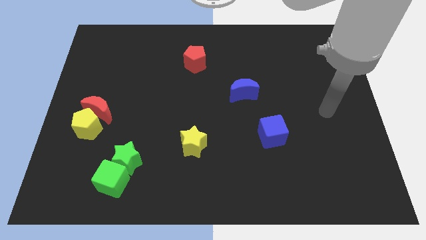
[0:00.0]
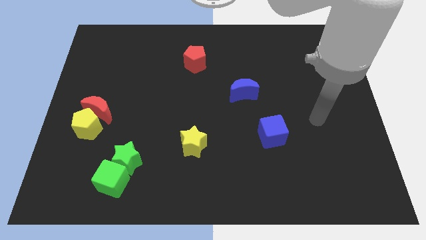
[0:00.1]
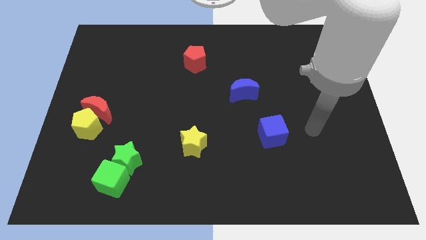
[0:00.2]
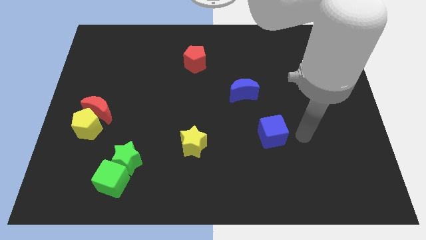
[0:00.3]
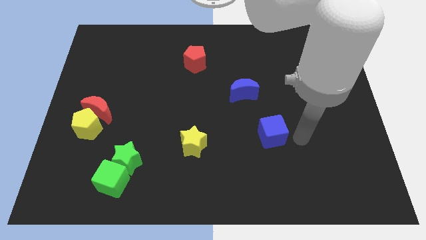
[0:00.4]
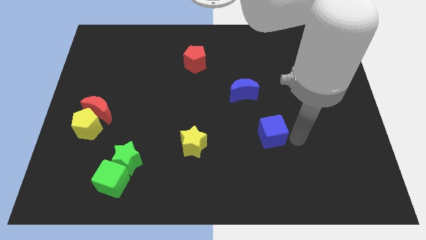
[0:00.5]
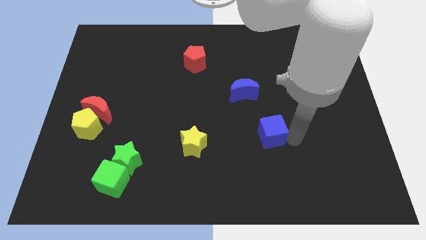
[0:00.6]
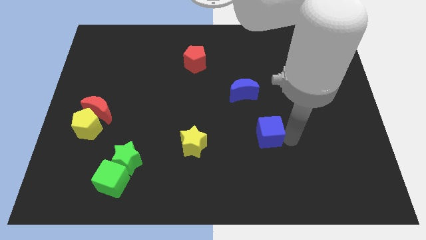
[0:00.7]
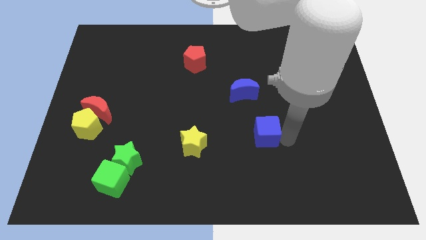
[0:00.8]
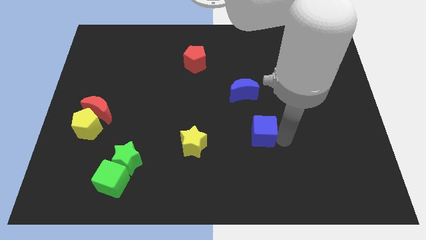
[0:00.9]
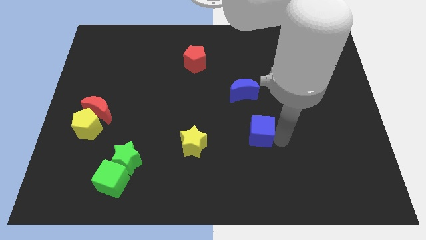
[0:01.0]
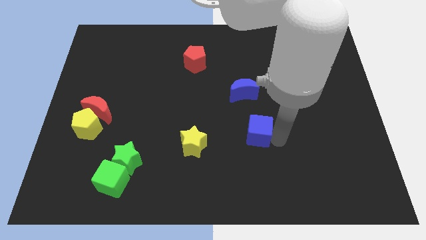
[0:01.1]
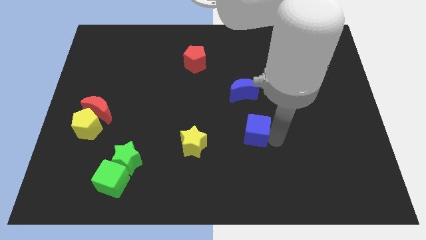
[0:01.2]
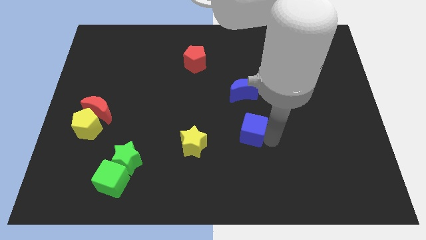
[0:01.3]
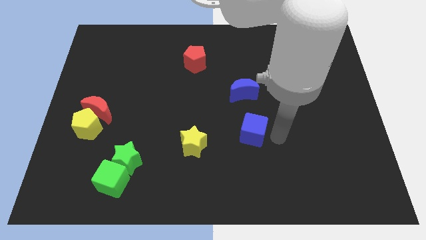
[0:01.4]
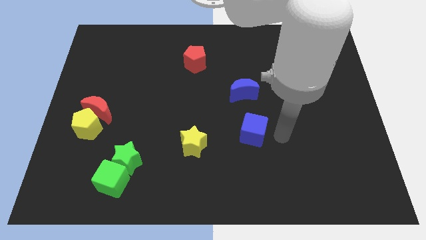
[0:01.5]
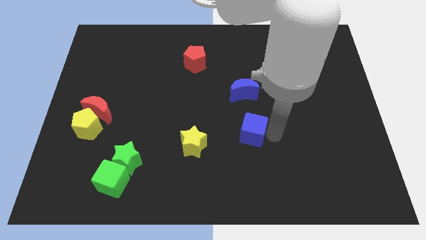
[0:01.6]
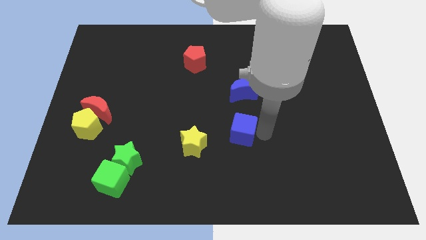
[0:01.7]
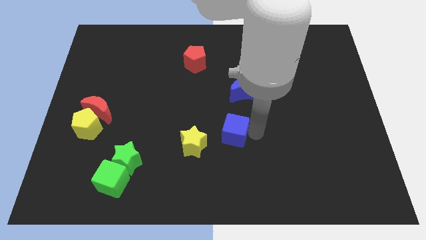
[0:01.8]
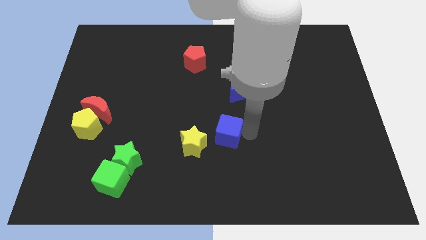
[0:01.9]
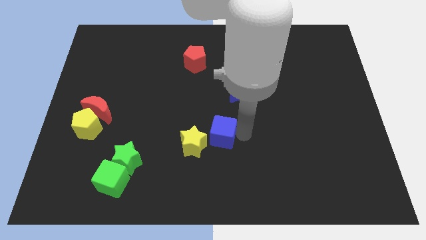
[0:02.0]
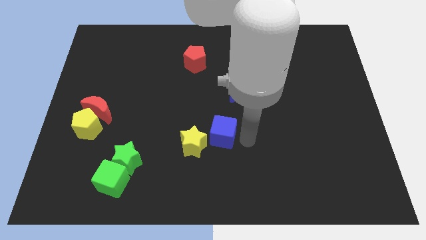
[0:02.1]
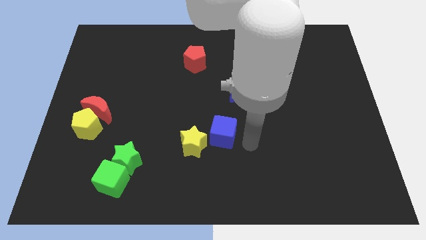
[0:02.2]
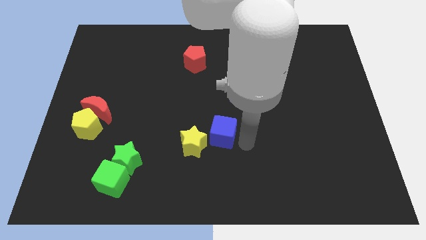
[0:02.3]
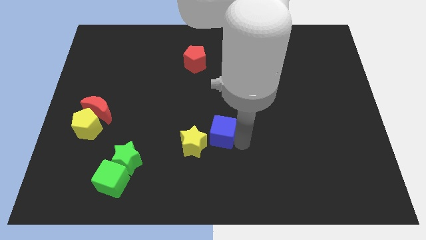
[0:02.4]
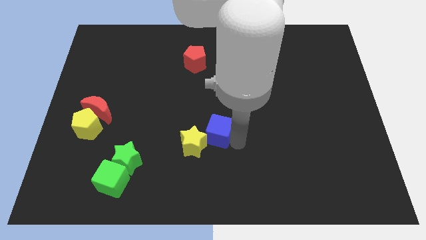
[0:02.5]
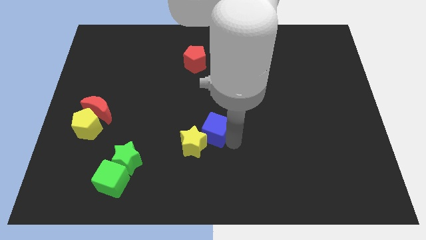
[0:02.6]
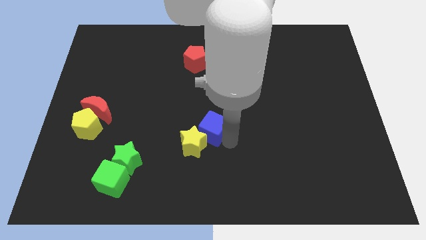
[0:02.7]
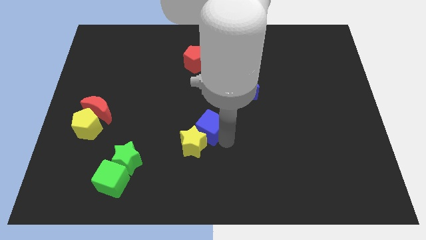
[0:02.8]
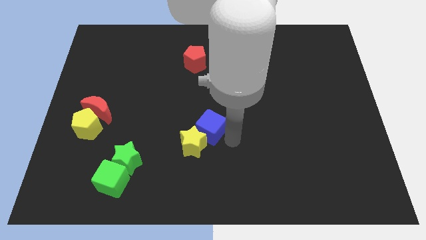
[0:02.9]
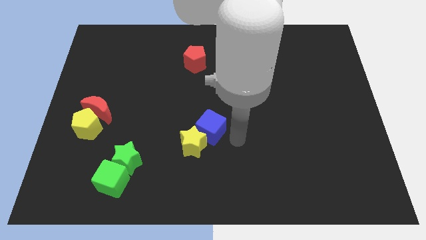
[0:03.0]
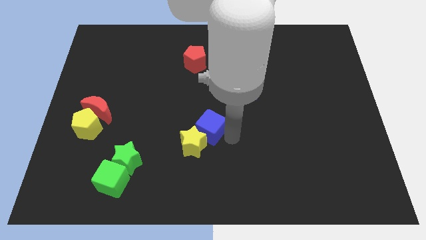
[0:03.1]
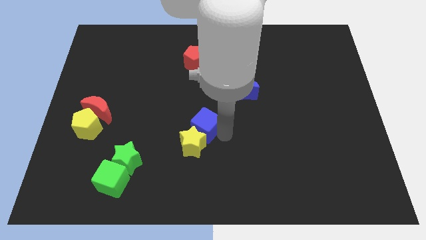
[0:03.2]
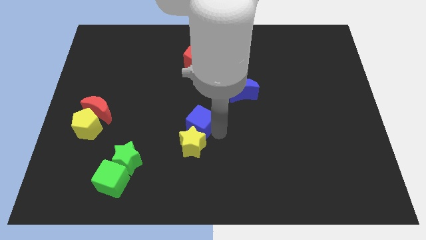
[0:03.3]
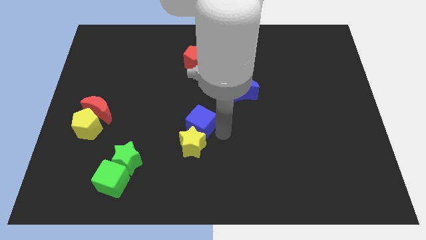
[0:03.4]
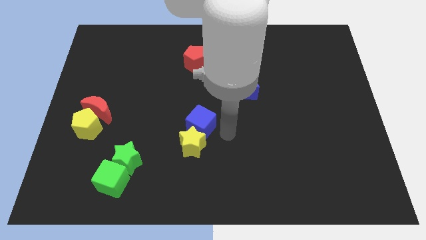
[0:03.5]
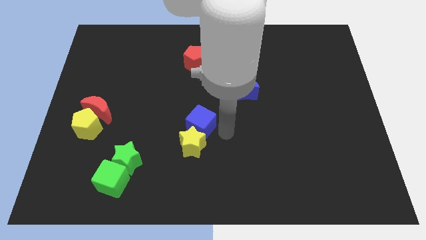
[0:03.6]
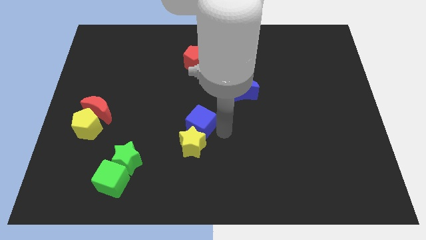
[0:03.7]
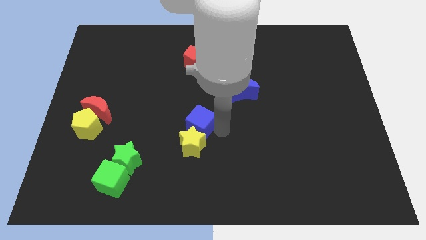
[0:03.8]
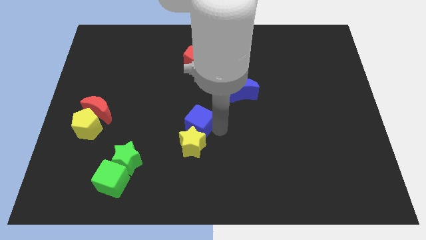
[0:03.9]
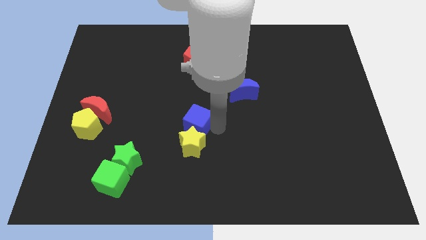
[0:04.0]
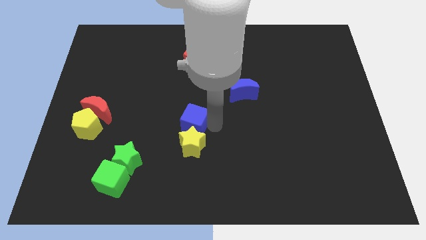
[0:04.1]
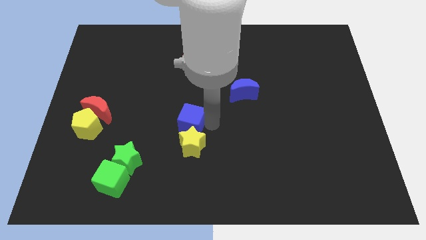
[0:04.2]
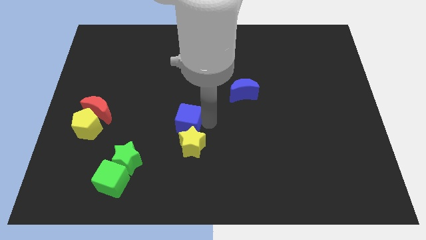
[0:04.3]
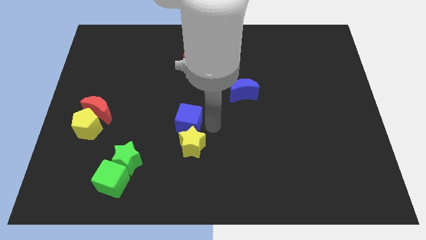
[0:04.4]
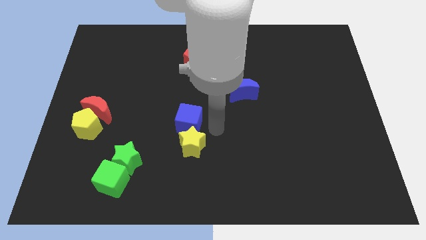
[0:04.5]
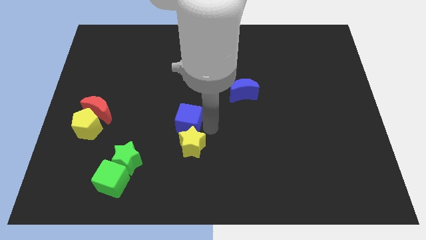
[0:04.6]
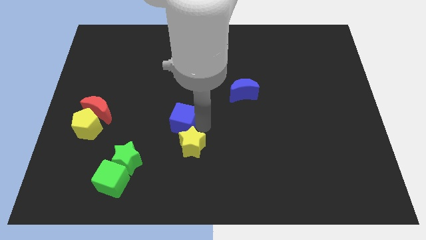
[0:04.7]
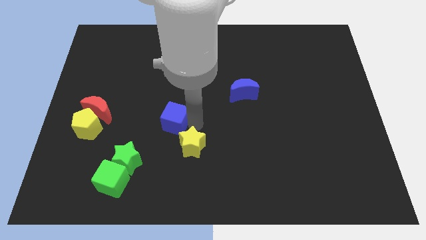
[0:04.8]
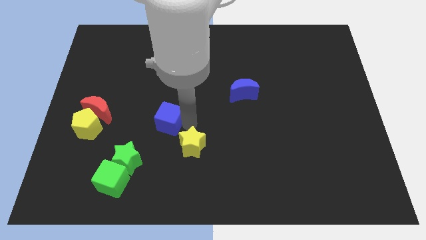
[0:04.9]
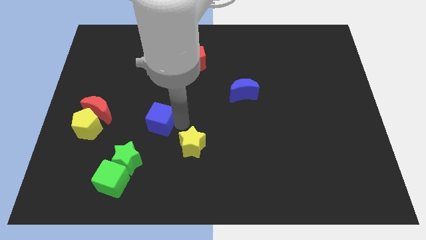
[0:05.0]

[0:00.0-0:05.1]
put the blue cube to the right of the red moon

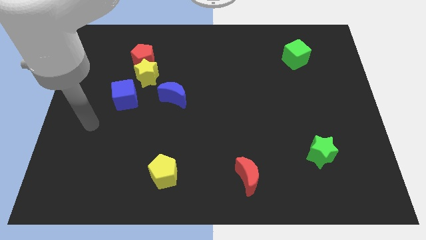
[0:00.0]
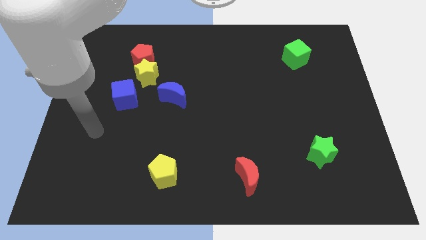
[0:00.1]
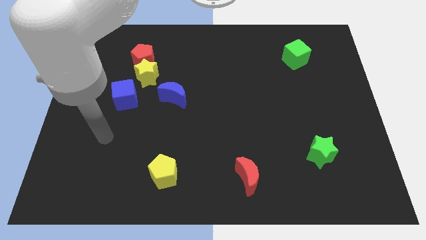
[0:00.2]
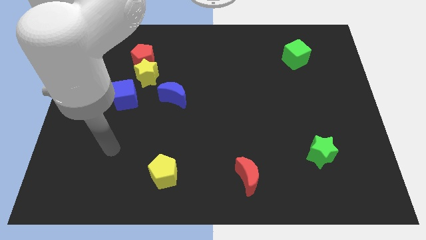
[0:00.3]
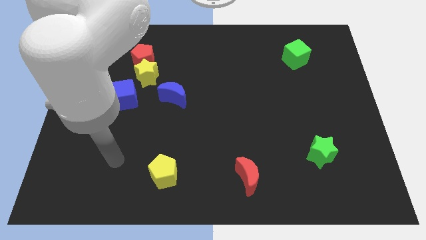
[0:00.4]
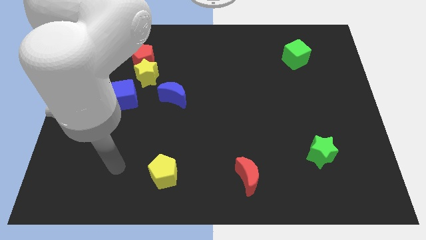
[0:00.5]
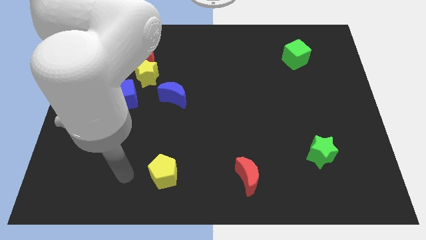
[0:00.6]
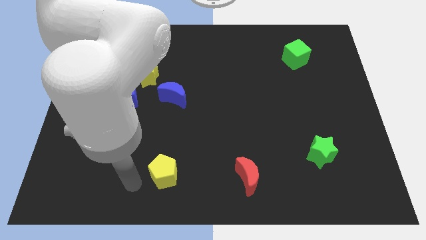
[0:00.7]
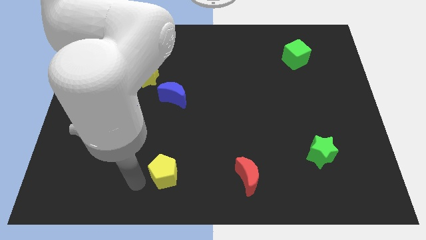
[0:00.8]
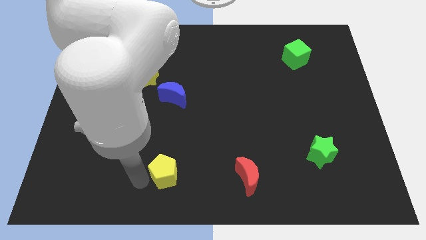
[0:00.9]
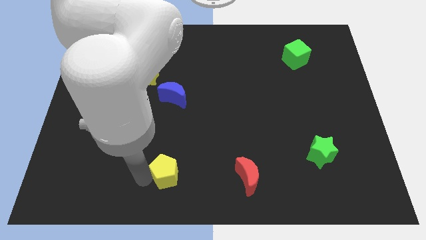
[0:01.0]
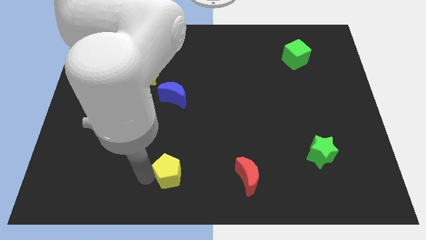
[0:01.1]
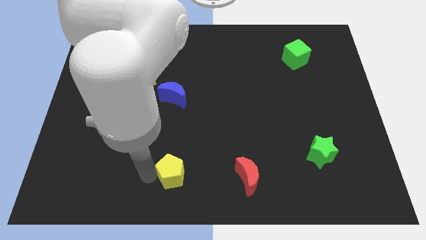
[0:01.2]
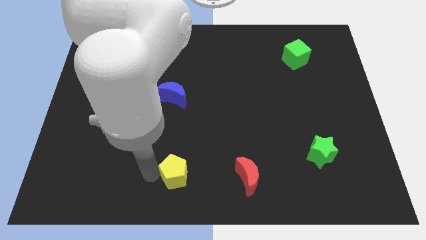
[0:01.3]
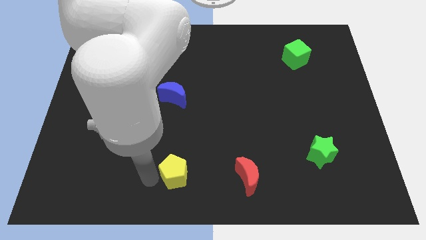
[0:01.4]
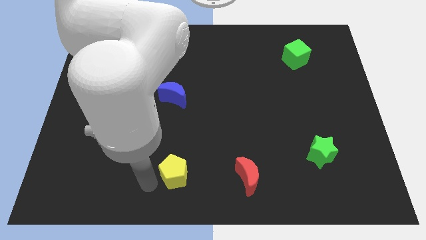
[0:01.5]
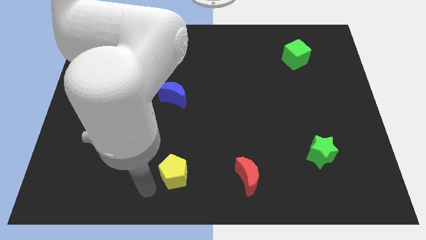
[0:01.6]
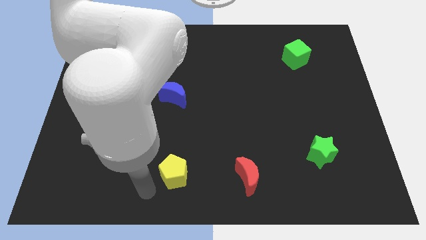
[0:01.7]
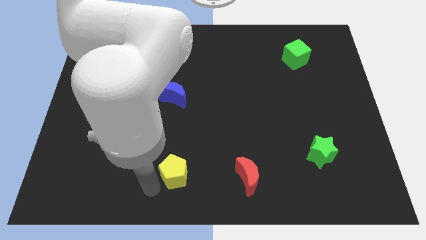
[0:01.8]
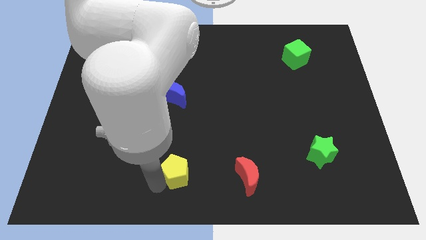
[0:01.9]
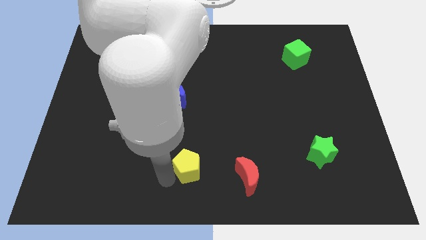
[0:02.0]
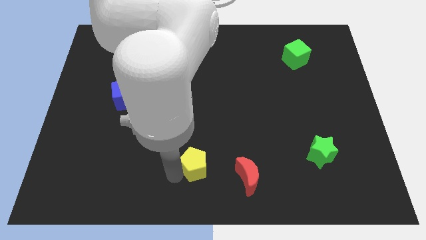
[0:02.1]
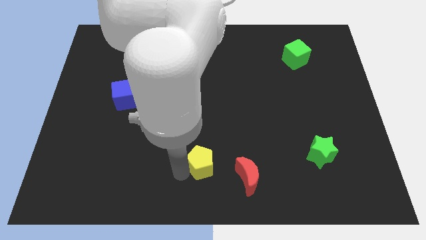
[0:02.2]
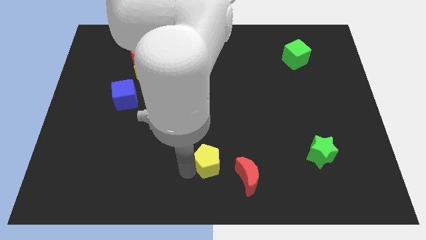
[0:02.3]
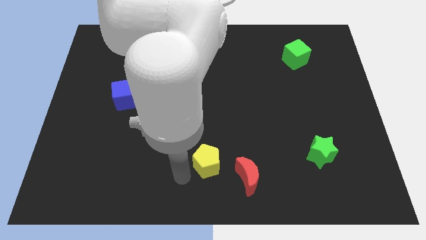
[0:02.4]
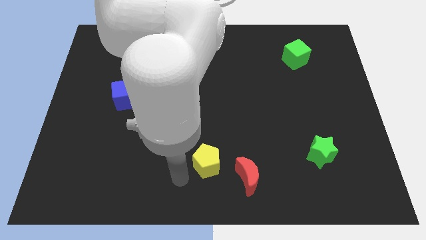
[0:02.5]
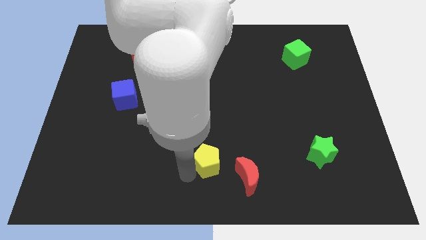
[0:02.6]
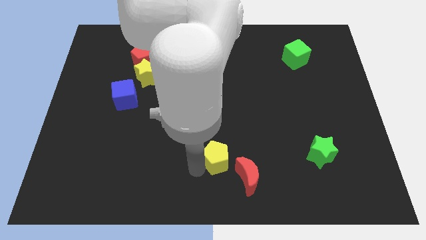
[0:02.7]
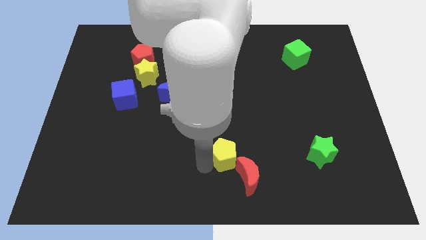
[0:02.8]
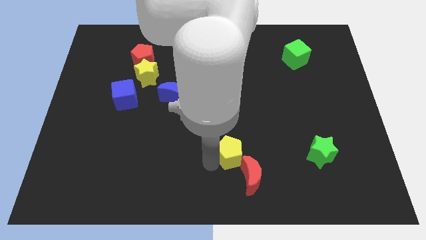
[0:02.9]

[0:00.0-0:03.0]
put the yellow pentagon above the red moon
